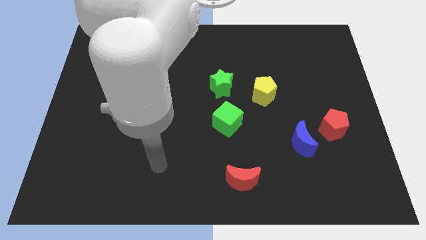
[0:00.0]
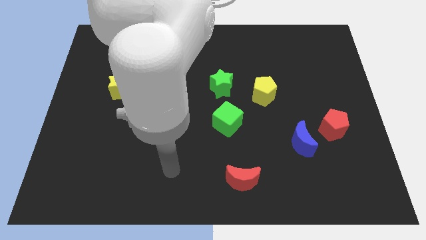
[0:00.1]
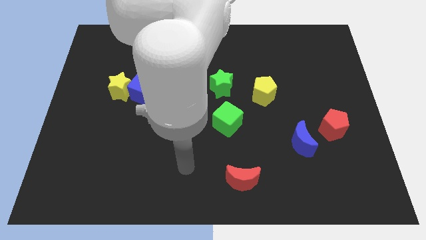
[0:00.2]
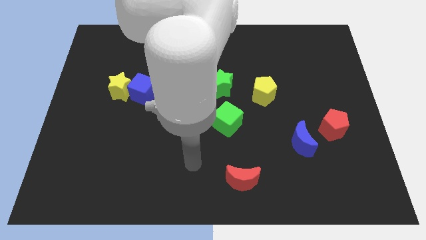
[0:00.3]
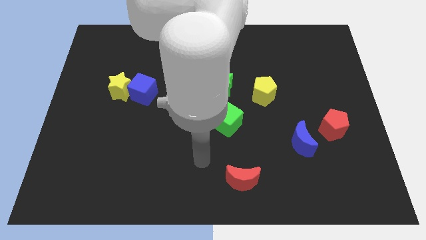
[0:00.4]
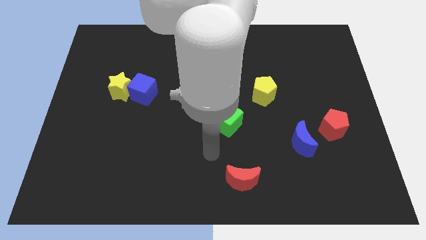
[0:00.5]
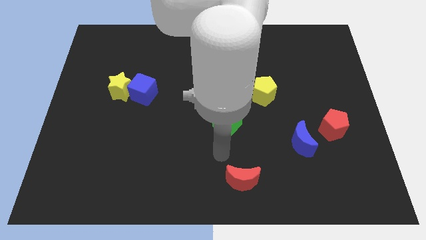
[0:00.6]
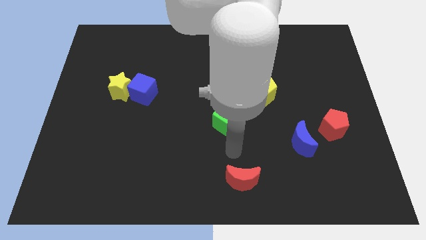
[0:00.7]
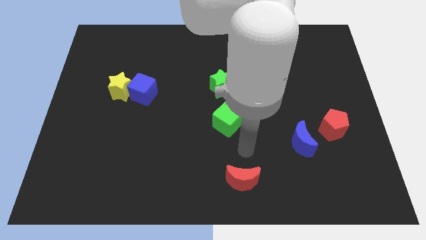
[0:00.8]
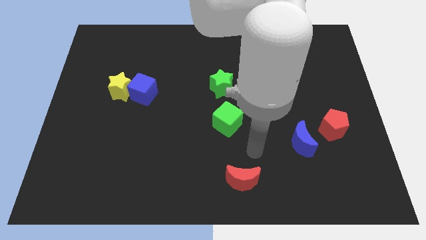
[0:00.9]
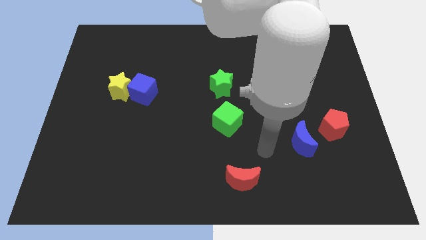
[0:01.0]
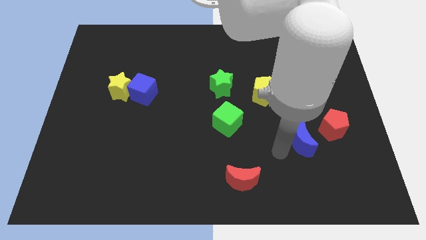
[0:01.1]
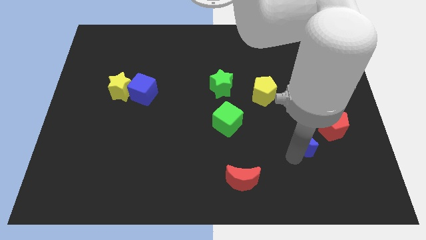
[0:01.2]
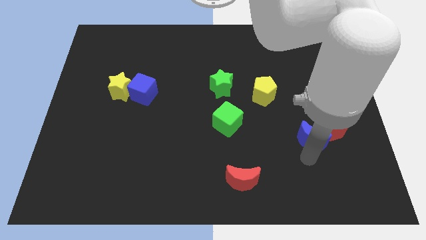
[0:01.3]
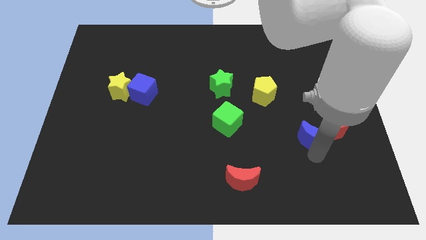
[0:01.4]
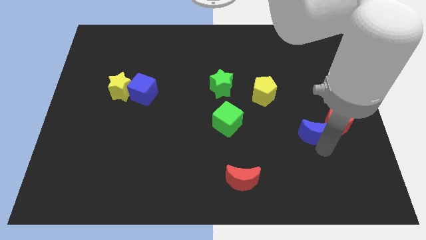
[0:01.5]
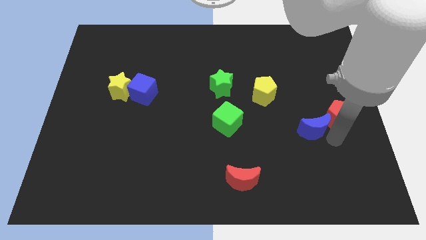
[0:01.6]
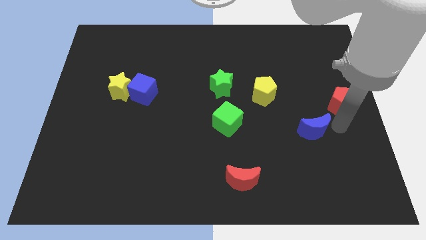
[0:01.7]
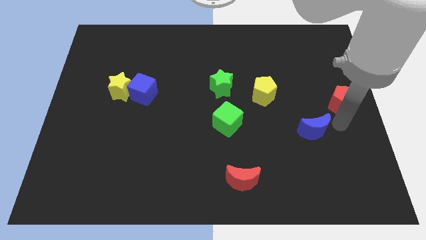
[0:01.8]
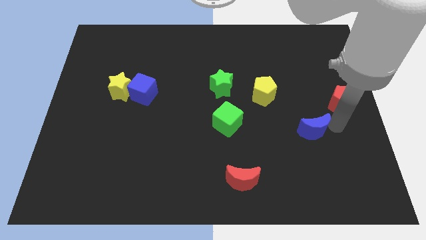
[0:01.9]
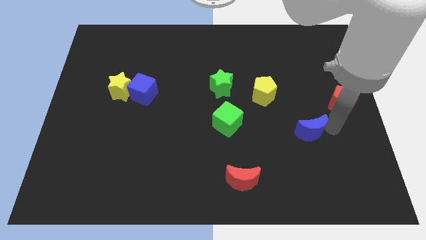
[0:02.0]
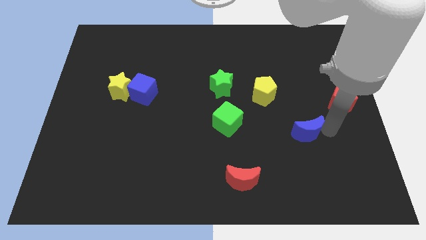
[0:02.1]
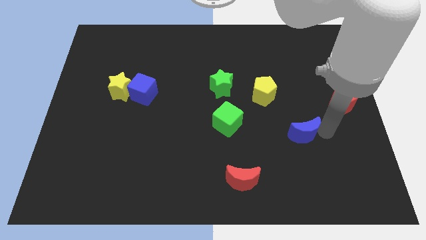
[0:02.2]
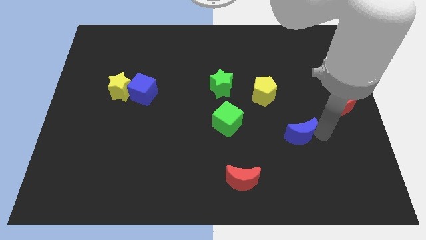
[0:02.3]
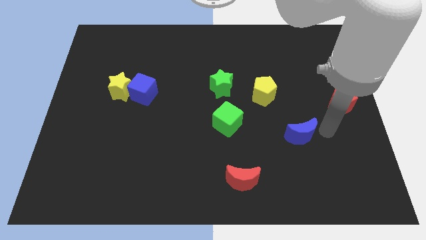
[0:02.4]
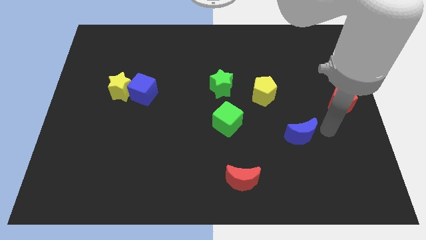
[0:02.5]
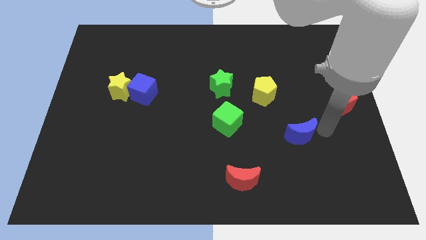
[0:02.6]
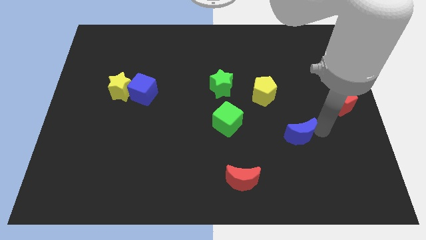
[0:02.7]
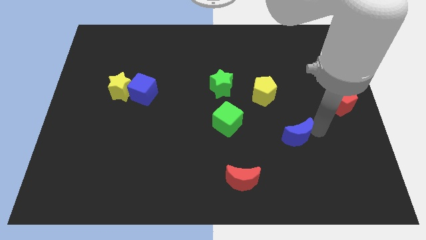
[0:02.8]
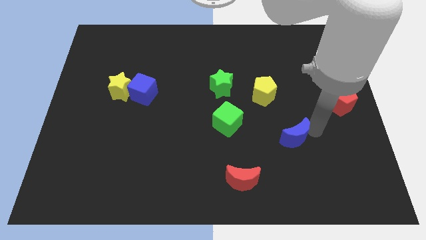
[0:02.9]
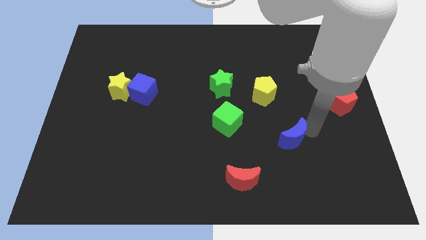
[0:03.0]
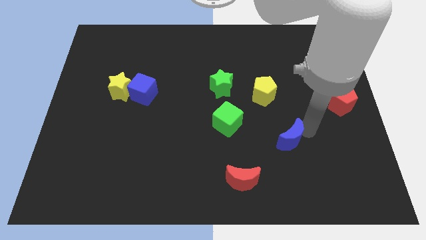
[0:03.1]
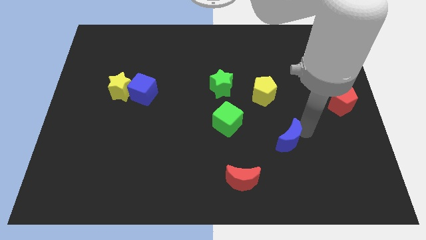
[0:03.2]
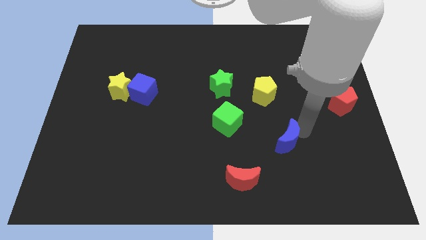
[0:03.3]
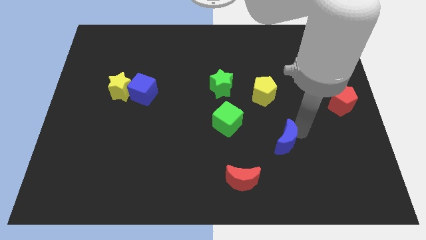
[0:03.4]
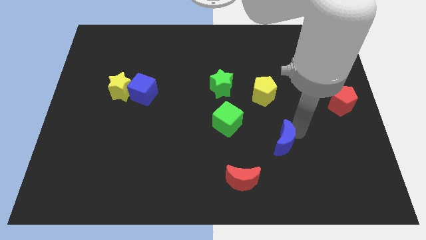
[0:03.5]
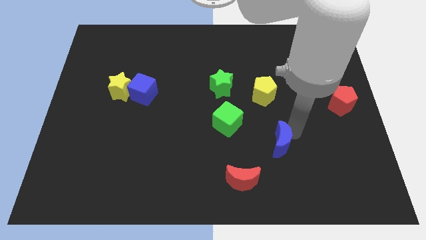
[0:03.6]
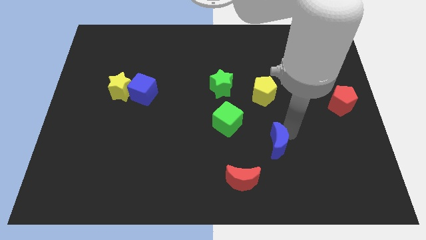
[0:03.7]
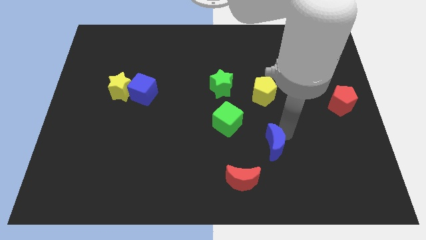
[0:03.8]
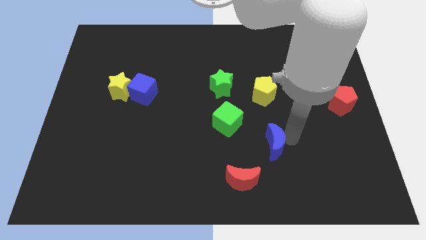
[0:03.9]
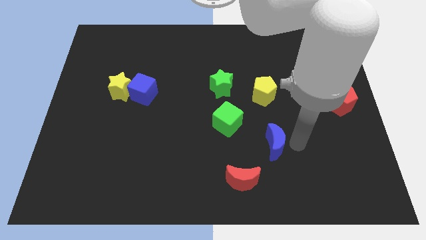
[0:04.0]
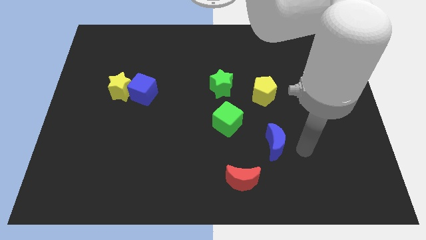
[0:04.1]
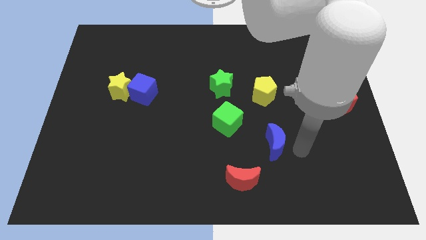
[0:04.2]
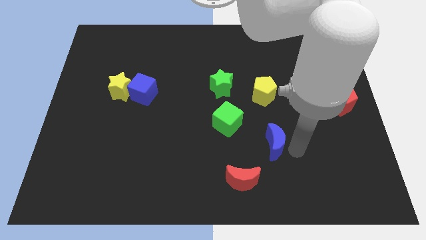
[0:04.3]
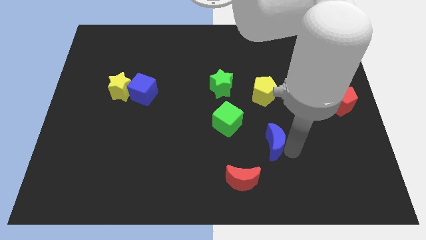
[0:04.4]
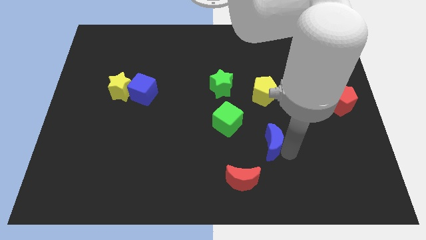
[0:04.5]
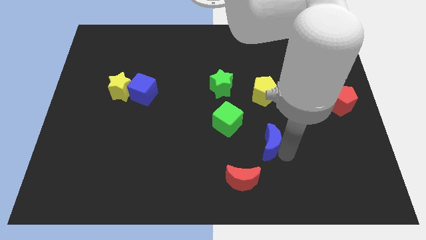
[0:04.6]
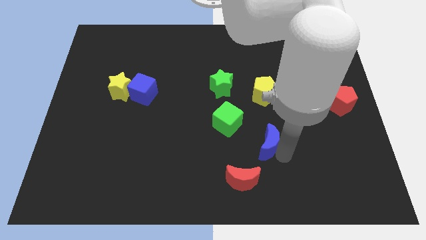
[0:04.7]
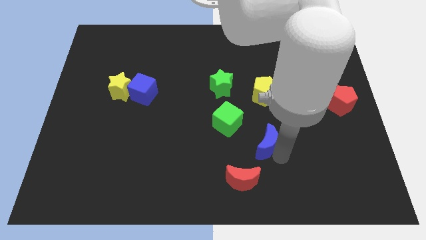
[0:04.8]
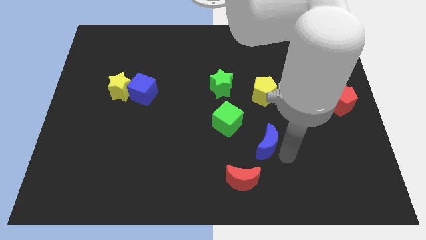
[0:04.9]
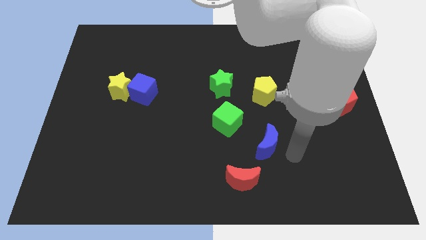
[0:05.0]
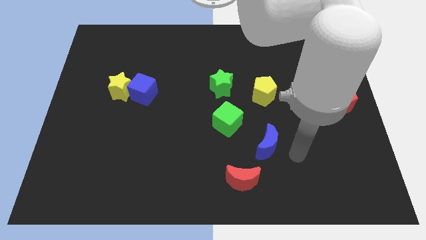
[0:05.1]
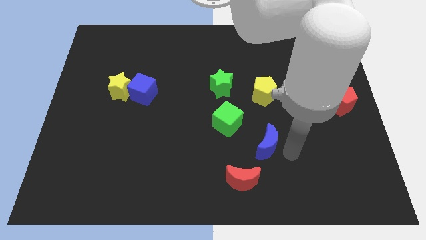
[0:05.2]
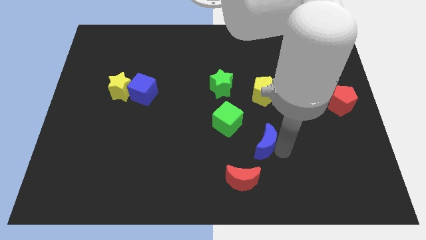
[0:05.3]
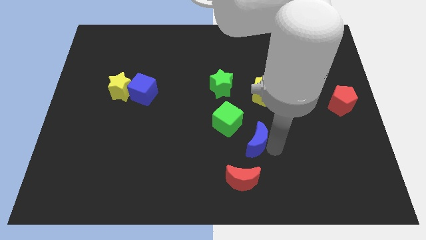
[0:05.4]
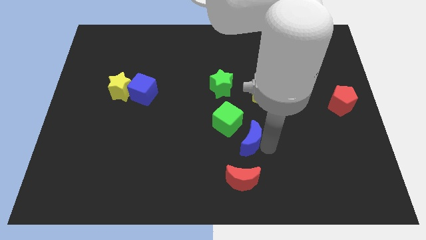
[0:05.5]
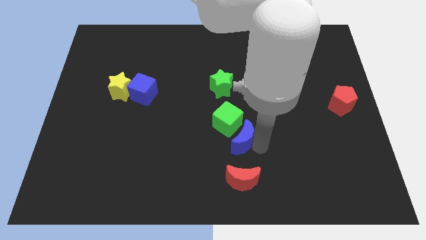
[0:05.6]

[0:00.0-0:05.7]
put the blue moon close to the green cube
